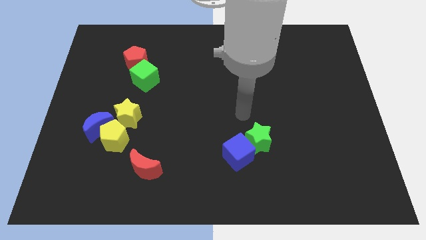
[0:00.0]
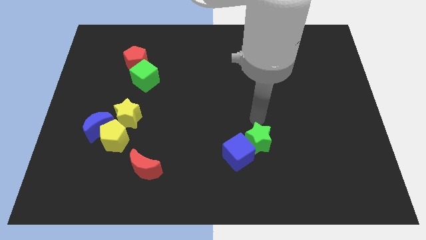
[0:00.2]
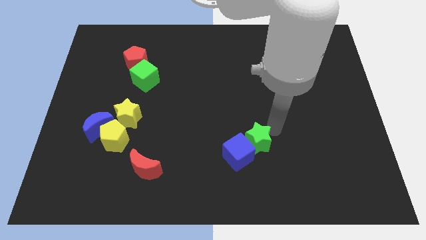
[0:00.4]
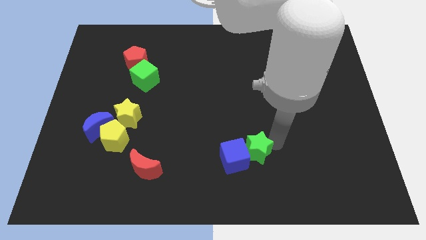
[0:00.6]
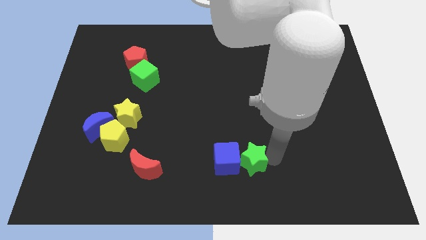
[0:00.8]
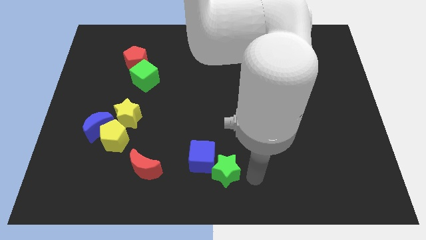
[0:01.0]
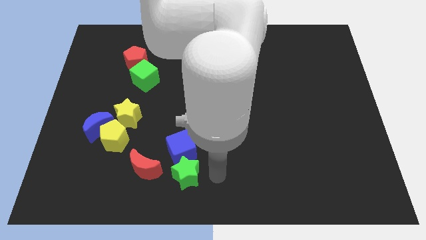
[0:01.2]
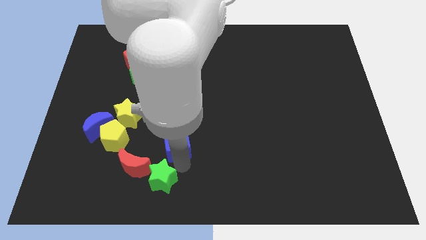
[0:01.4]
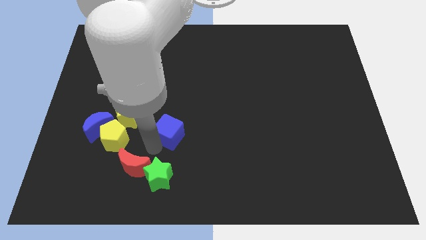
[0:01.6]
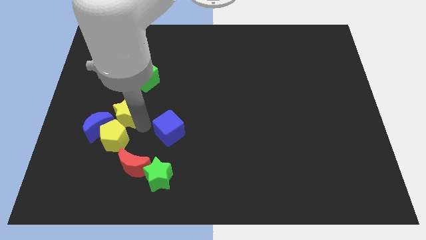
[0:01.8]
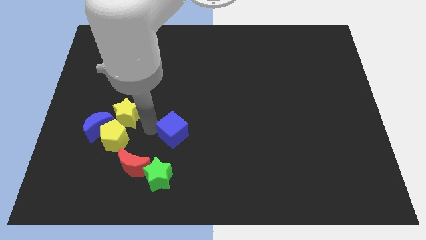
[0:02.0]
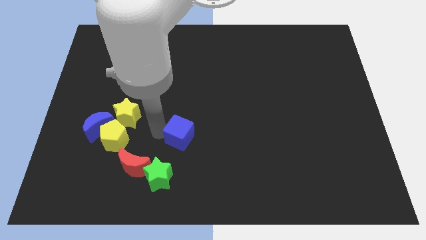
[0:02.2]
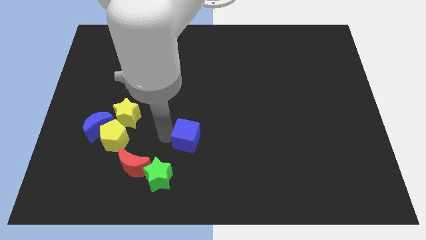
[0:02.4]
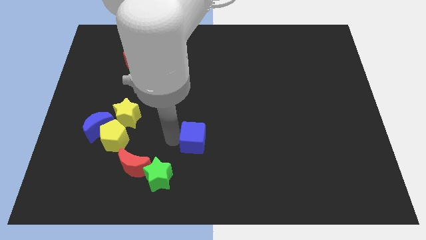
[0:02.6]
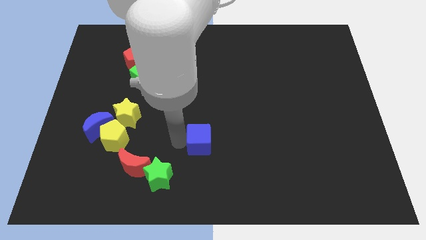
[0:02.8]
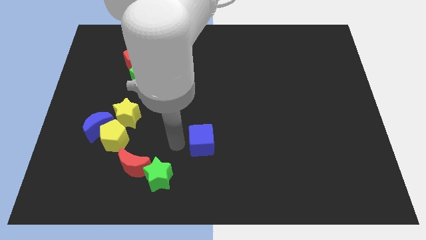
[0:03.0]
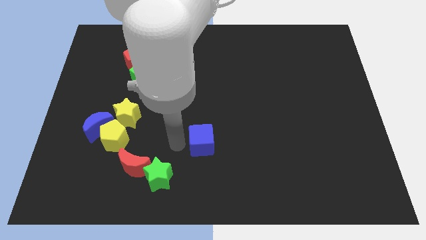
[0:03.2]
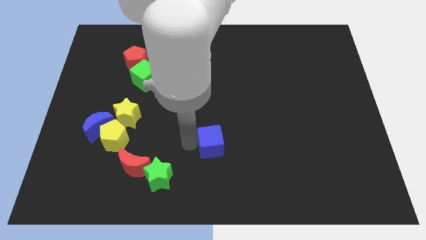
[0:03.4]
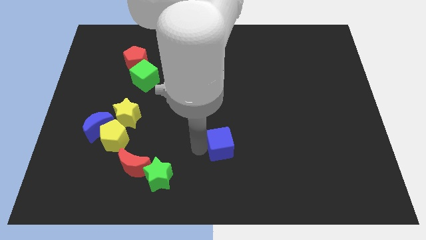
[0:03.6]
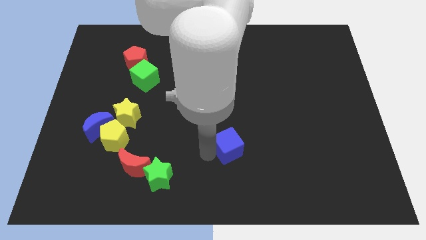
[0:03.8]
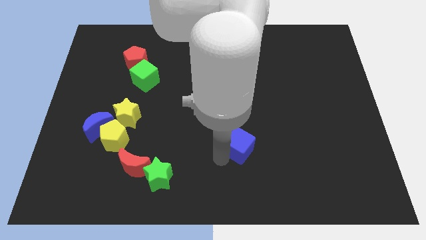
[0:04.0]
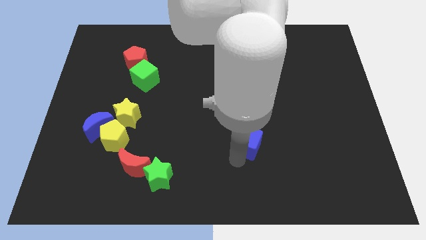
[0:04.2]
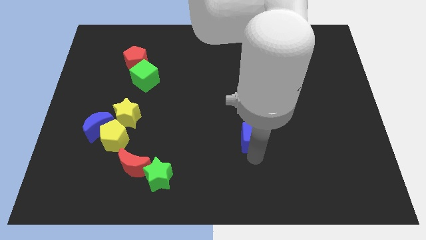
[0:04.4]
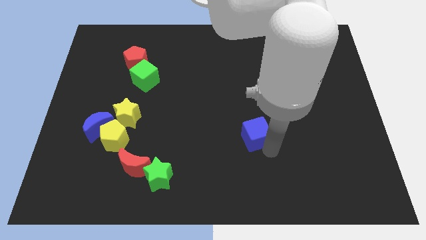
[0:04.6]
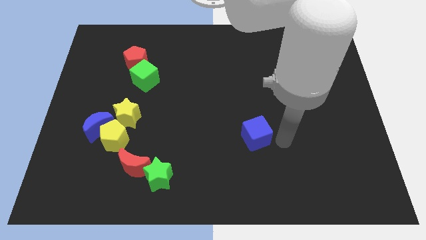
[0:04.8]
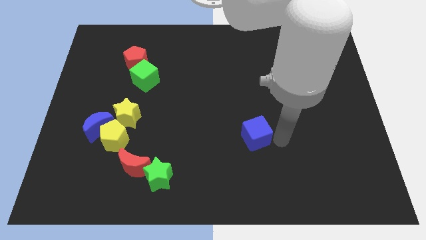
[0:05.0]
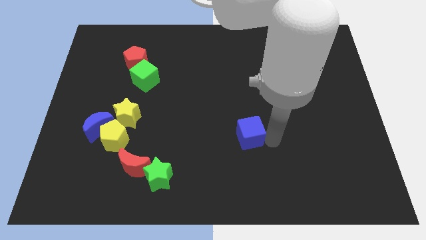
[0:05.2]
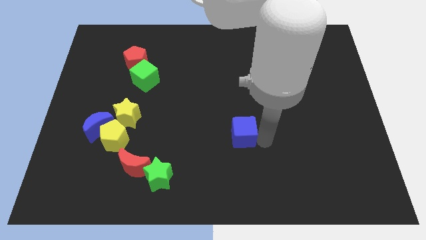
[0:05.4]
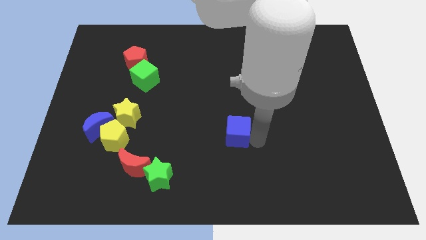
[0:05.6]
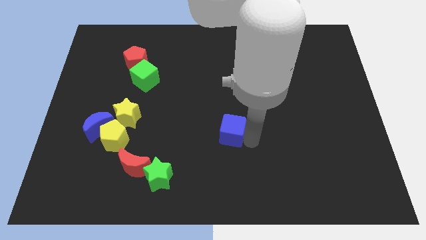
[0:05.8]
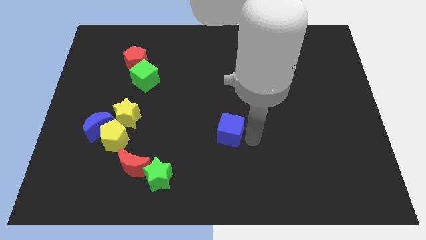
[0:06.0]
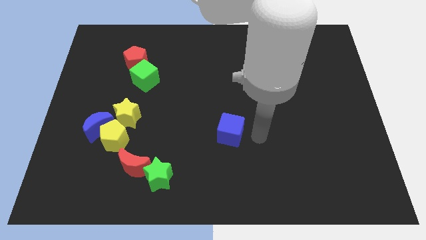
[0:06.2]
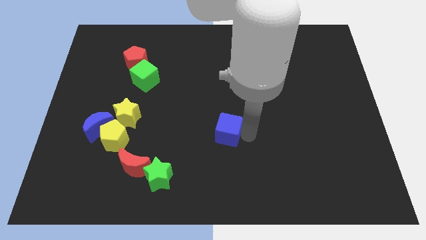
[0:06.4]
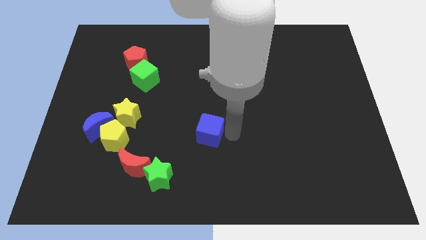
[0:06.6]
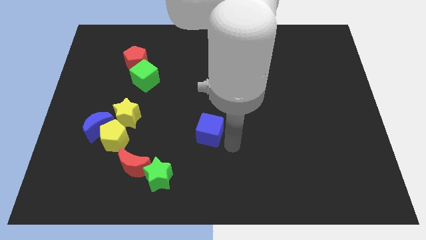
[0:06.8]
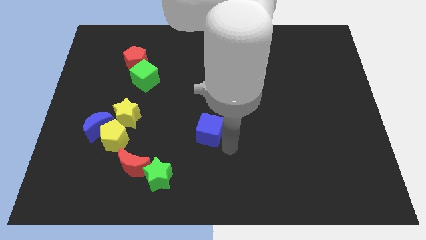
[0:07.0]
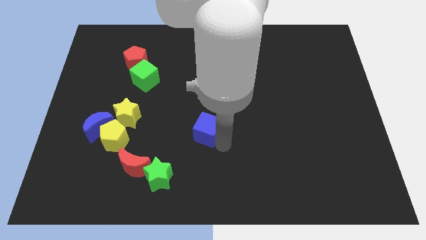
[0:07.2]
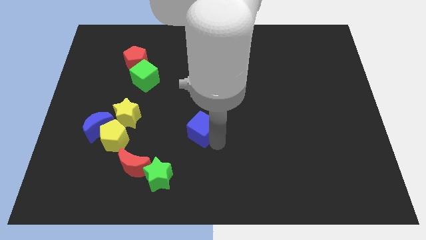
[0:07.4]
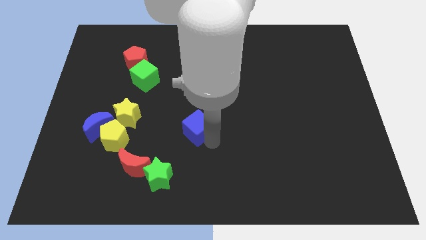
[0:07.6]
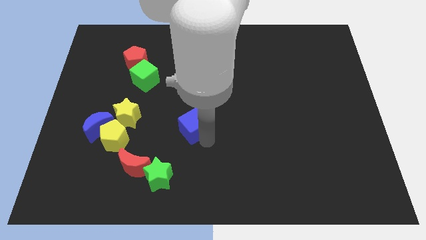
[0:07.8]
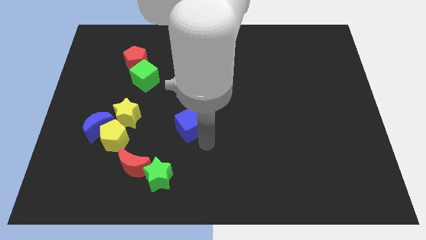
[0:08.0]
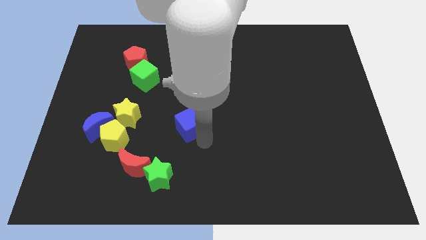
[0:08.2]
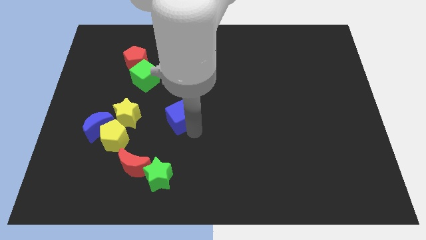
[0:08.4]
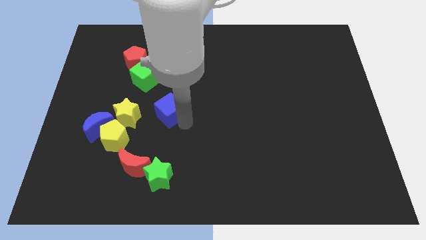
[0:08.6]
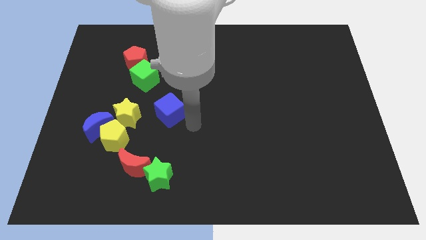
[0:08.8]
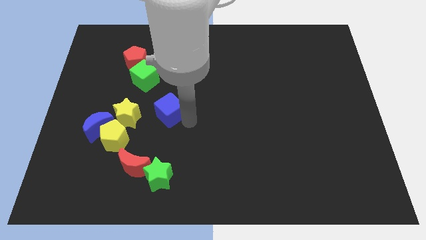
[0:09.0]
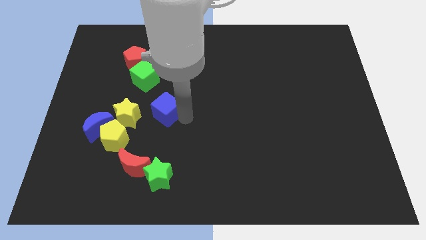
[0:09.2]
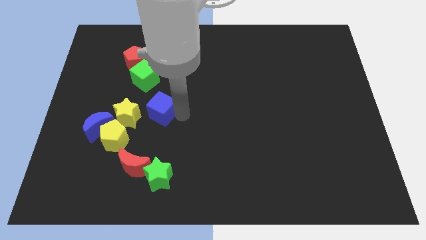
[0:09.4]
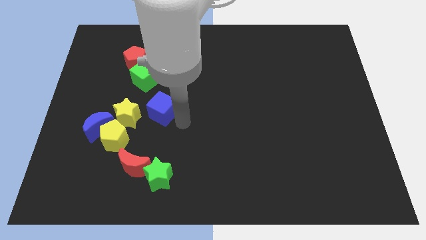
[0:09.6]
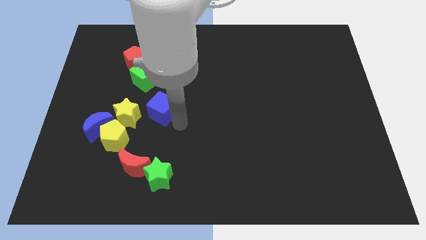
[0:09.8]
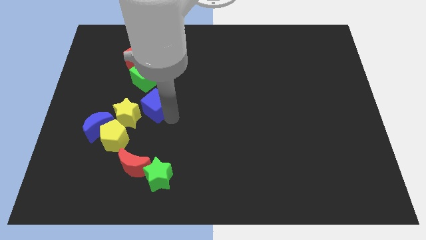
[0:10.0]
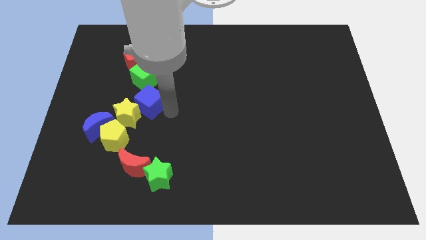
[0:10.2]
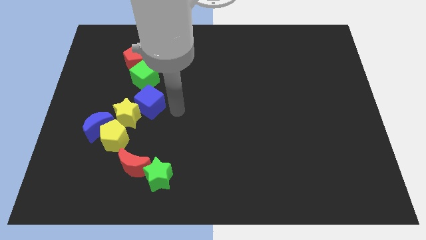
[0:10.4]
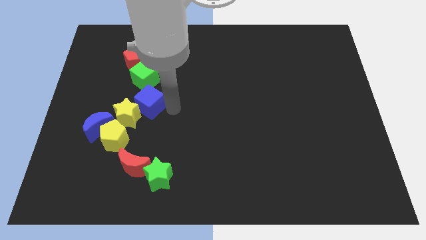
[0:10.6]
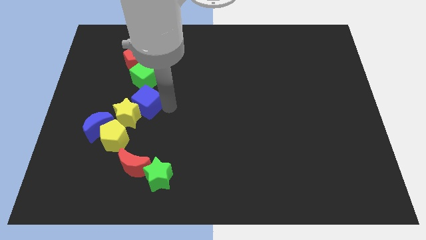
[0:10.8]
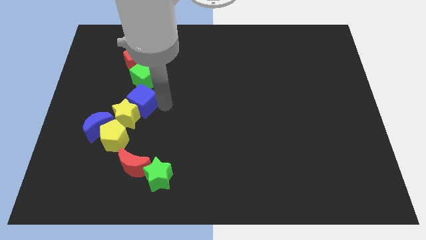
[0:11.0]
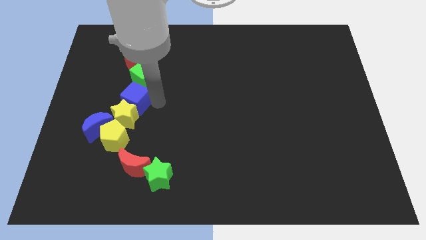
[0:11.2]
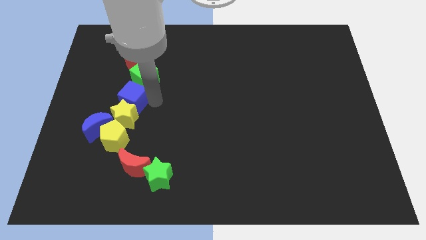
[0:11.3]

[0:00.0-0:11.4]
push the blue cube to the top left of the yellow star

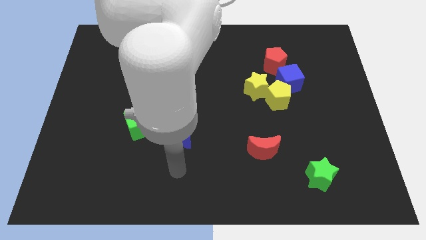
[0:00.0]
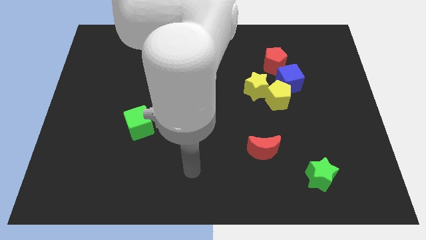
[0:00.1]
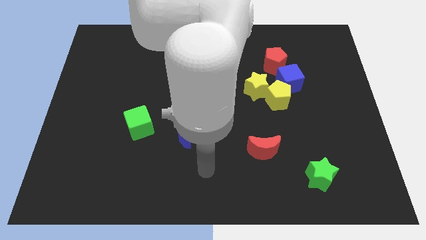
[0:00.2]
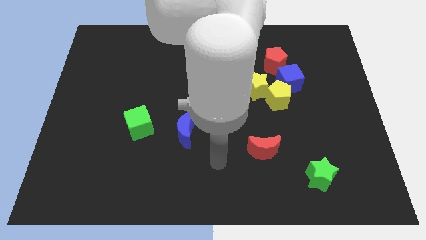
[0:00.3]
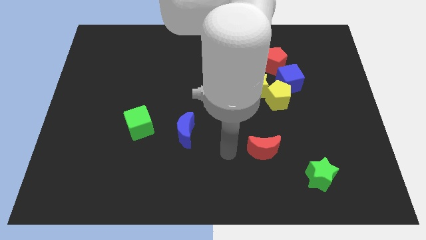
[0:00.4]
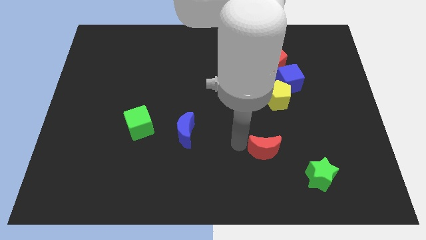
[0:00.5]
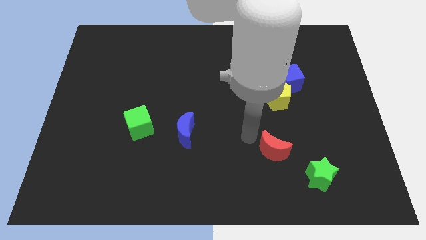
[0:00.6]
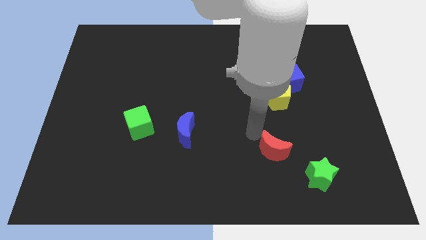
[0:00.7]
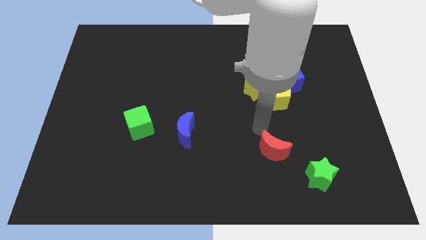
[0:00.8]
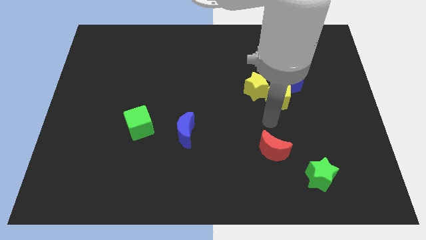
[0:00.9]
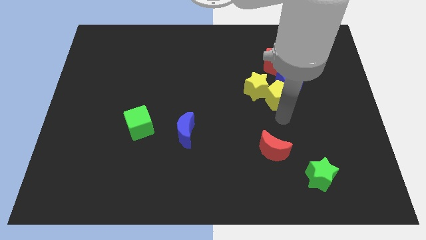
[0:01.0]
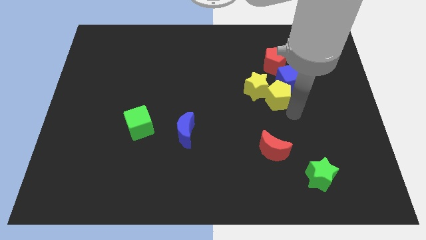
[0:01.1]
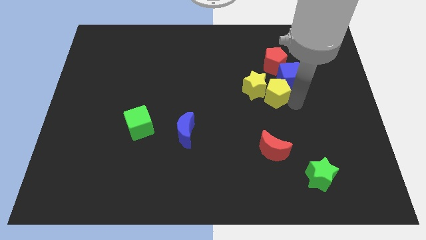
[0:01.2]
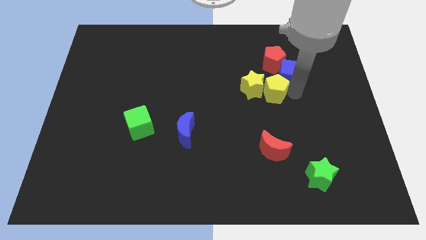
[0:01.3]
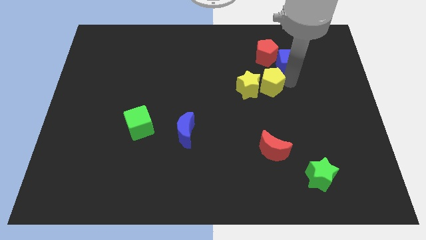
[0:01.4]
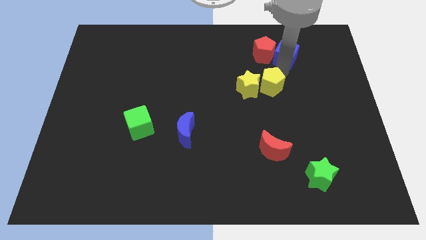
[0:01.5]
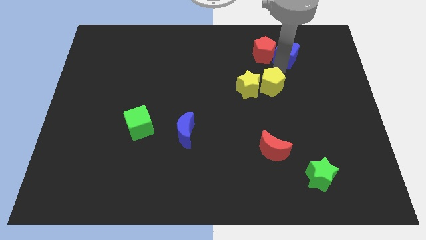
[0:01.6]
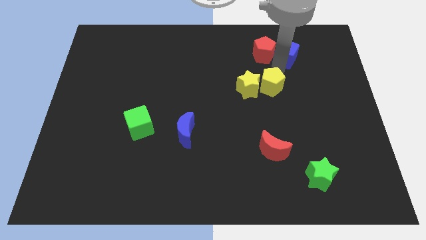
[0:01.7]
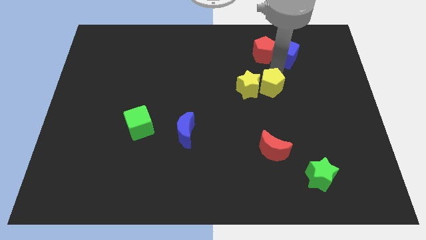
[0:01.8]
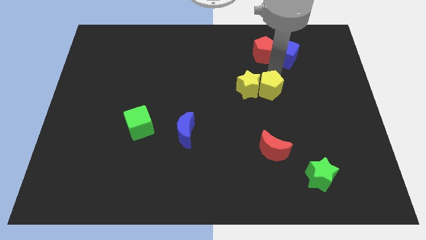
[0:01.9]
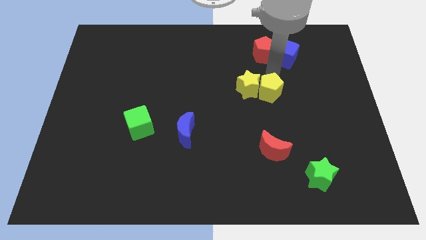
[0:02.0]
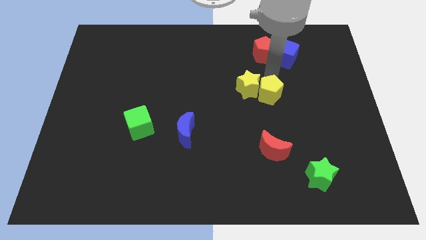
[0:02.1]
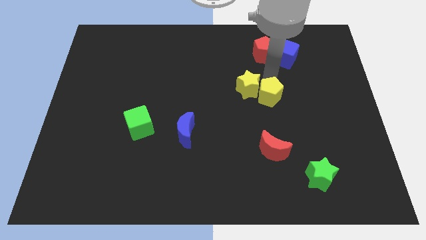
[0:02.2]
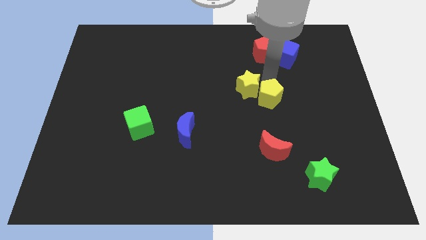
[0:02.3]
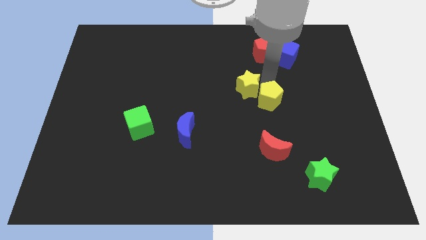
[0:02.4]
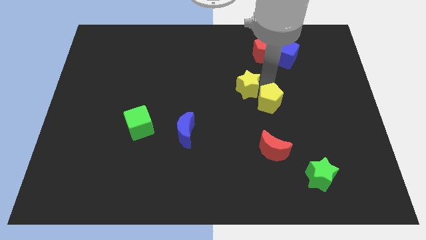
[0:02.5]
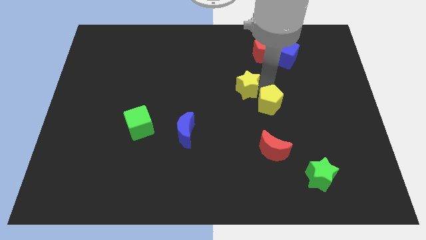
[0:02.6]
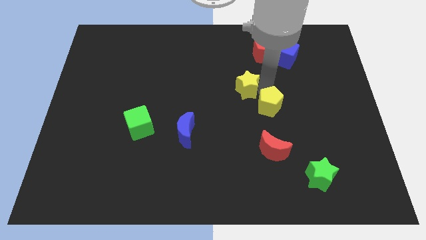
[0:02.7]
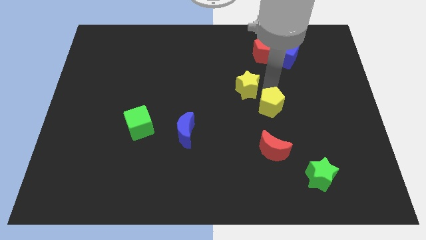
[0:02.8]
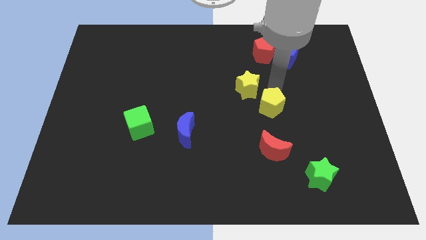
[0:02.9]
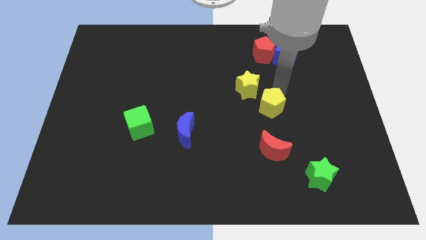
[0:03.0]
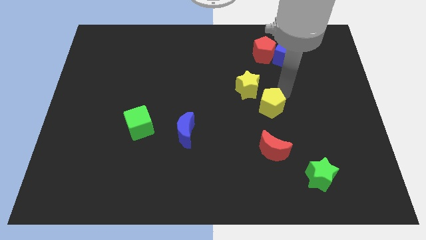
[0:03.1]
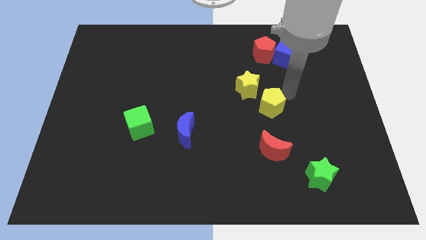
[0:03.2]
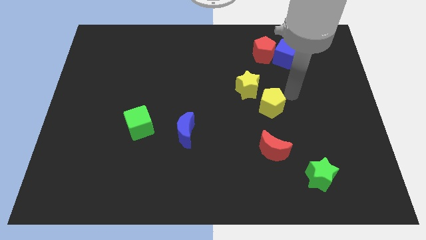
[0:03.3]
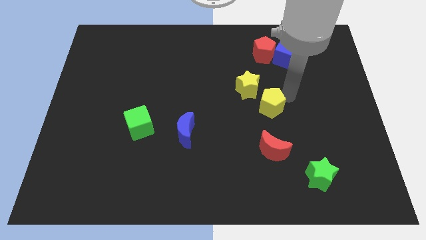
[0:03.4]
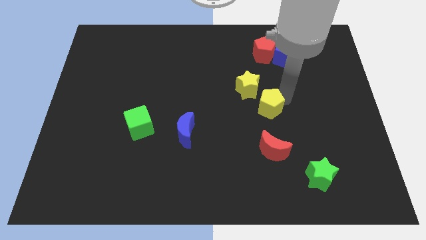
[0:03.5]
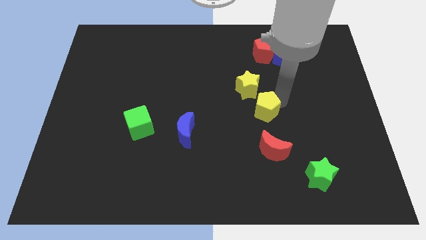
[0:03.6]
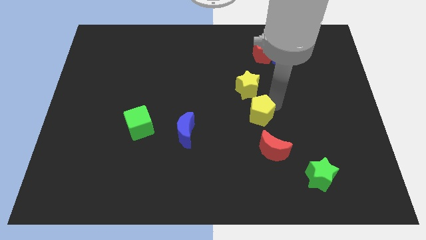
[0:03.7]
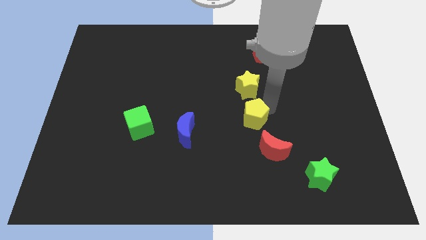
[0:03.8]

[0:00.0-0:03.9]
push the yellow pentagon diagonally up and to the left of the red moon
